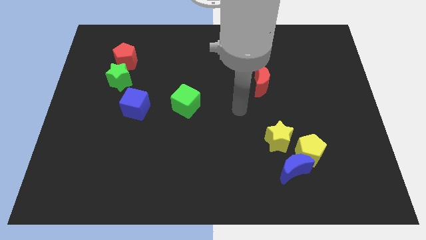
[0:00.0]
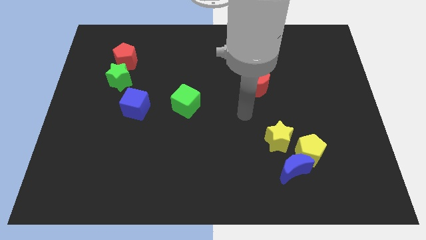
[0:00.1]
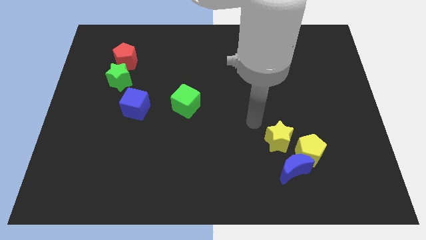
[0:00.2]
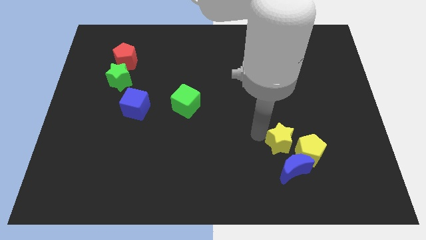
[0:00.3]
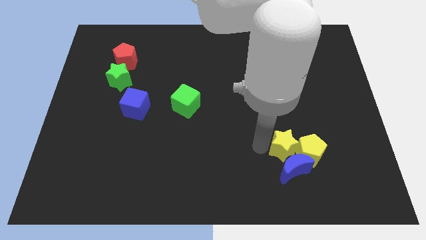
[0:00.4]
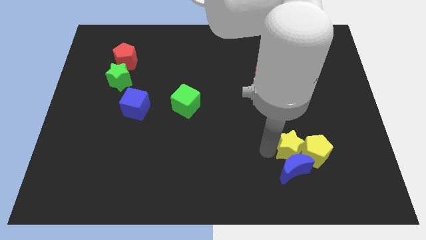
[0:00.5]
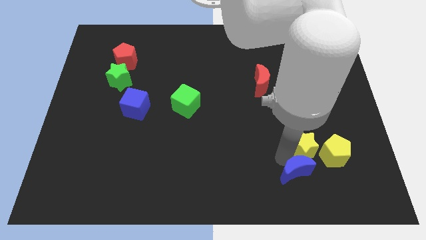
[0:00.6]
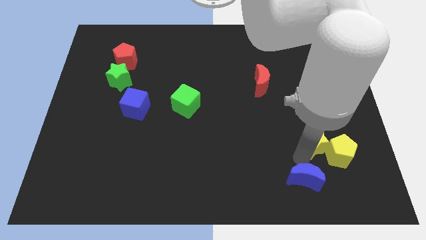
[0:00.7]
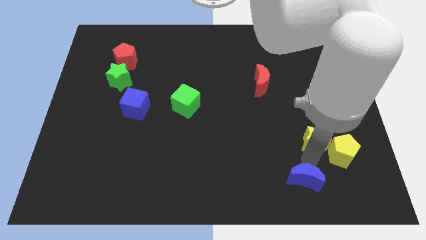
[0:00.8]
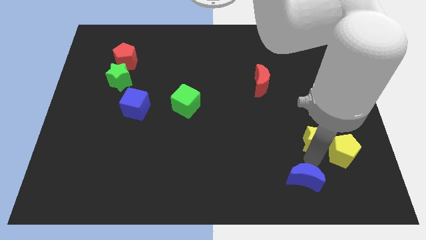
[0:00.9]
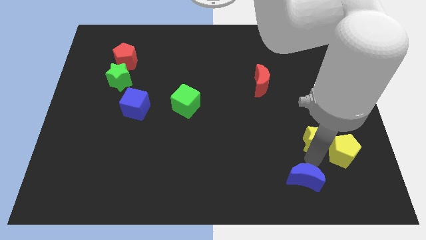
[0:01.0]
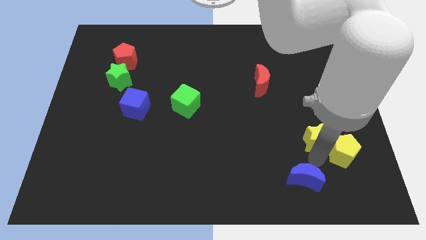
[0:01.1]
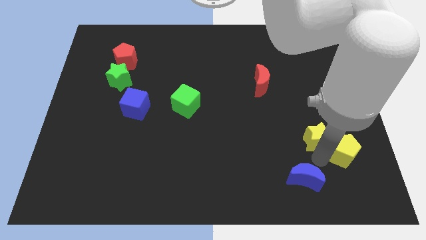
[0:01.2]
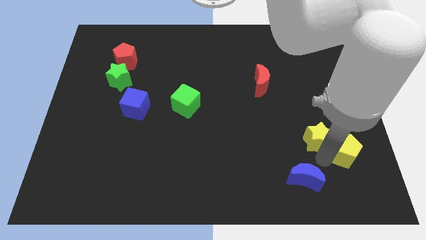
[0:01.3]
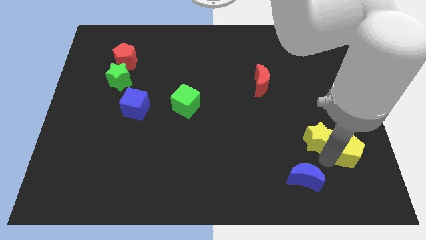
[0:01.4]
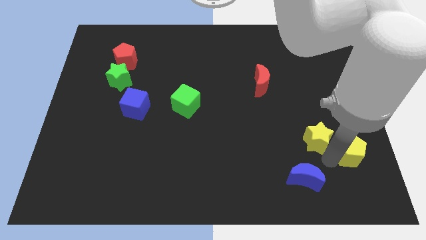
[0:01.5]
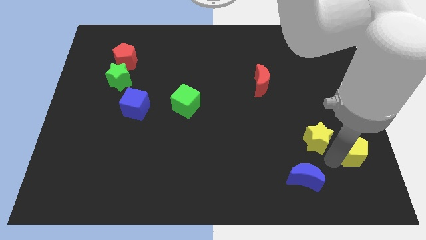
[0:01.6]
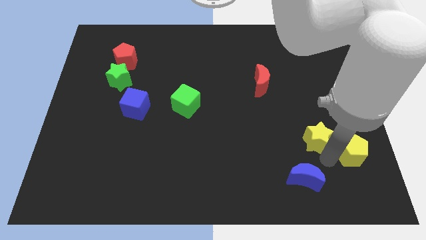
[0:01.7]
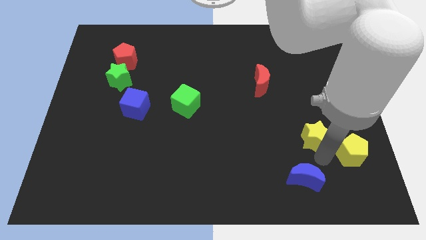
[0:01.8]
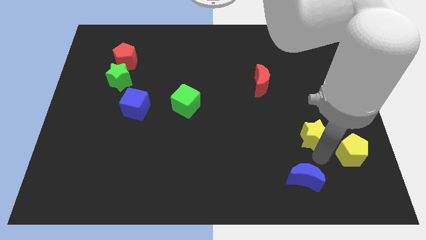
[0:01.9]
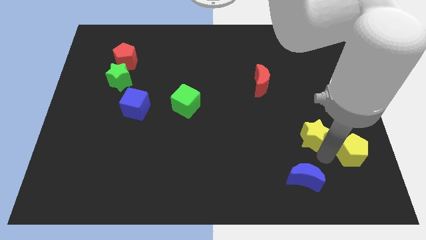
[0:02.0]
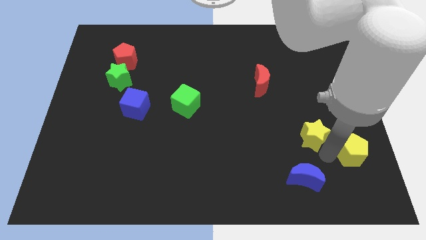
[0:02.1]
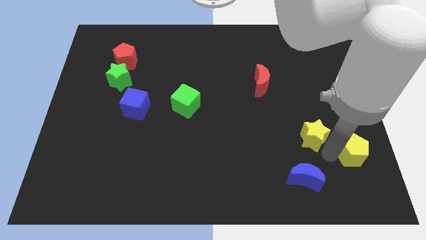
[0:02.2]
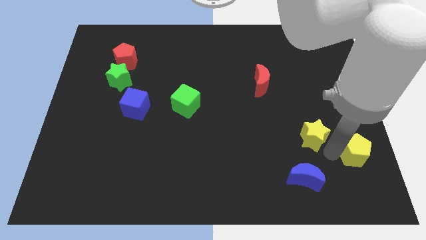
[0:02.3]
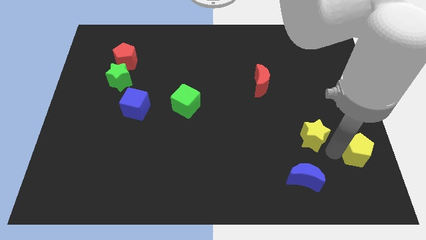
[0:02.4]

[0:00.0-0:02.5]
pull the yellow pentagon apart from the blue moon and yellow star

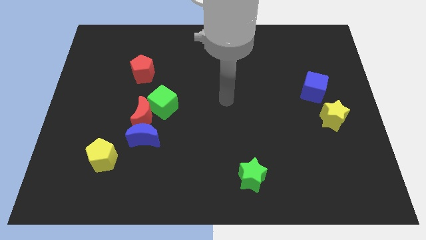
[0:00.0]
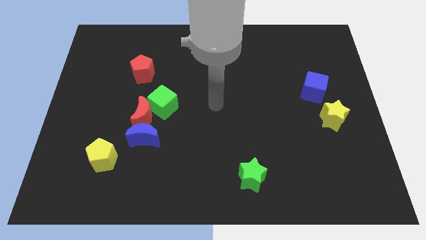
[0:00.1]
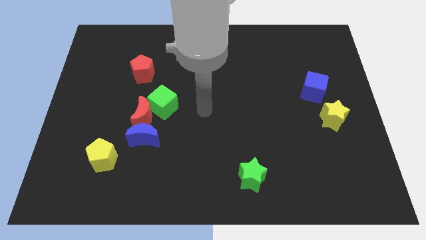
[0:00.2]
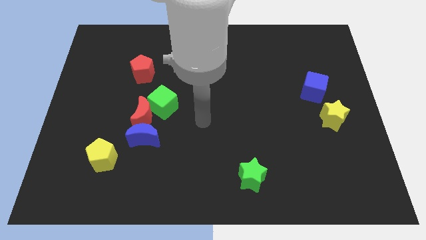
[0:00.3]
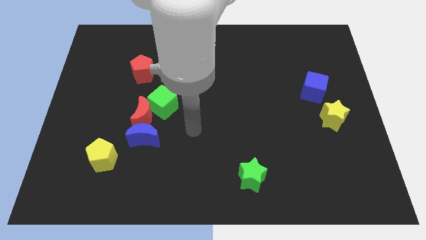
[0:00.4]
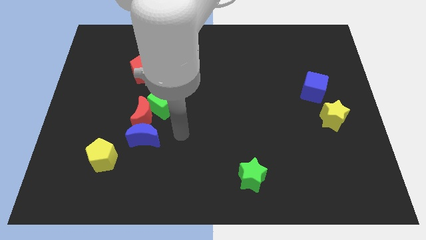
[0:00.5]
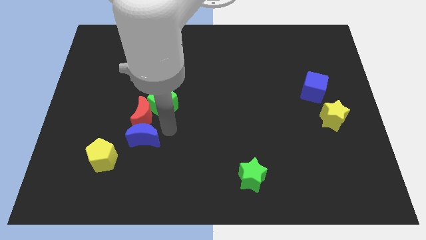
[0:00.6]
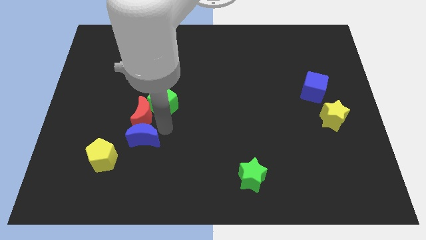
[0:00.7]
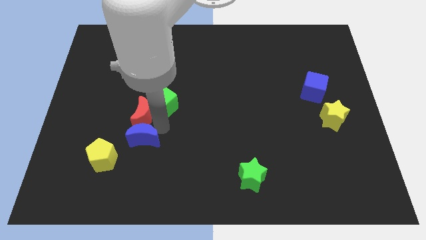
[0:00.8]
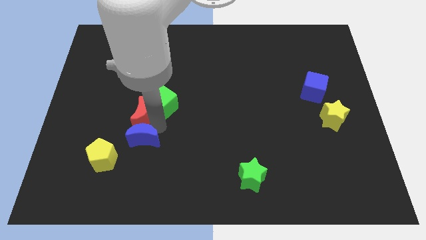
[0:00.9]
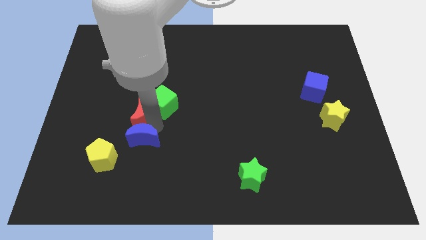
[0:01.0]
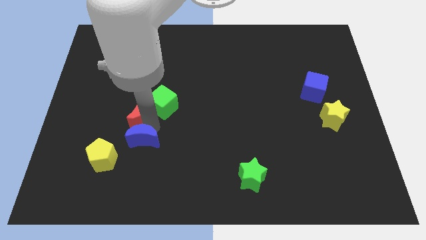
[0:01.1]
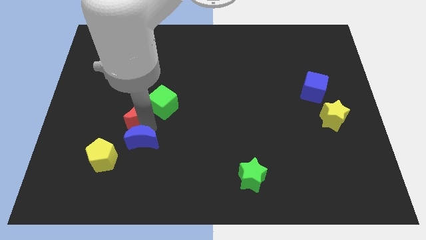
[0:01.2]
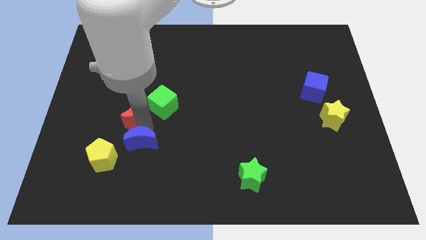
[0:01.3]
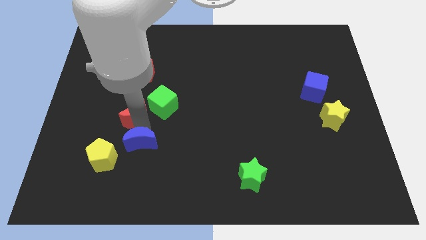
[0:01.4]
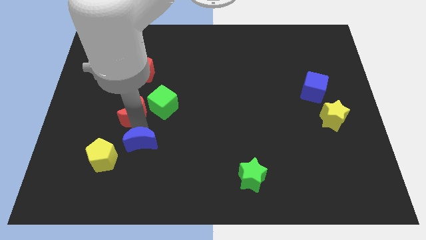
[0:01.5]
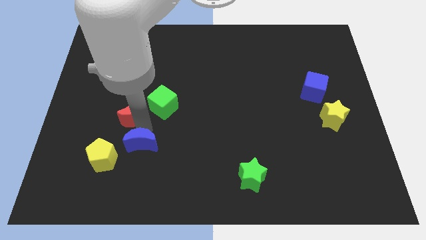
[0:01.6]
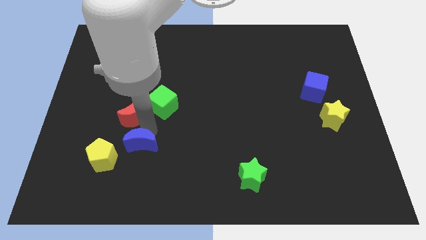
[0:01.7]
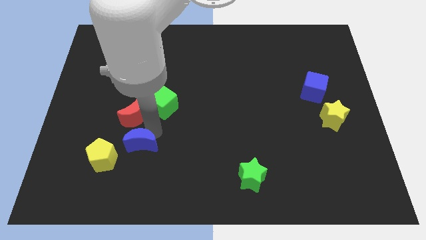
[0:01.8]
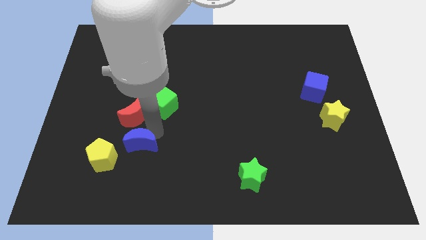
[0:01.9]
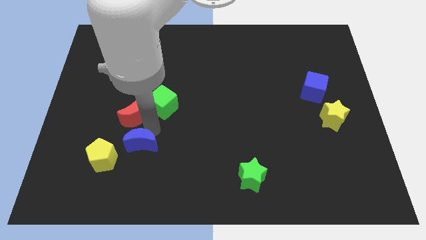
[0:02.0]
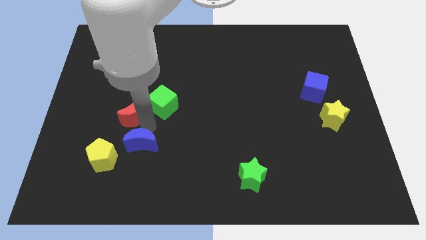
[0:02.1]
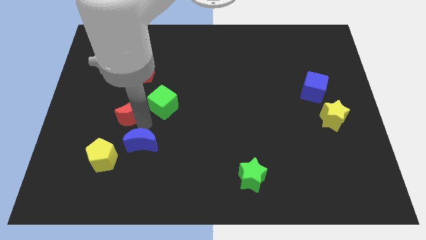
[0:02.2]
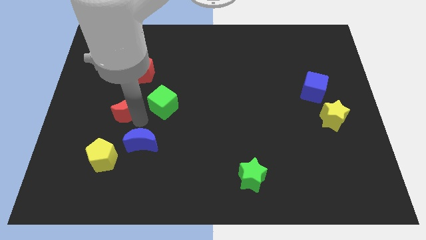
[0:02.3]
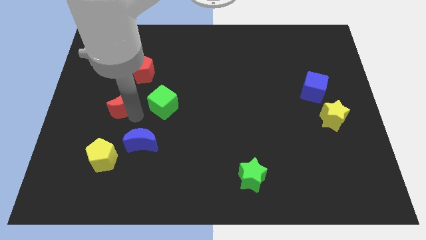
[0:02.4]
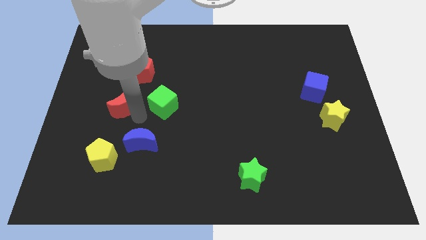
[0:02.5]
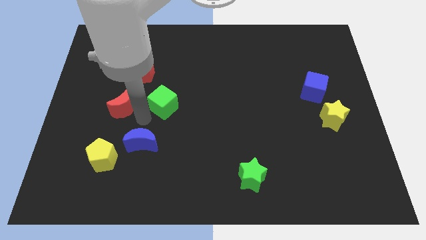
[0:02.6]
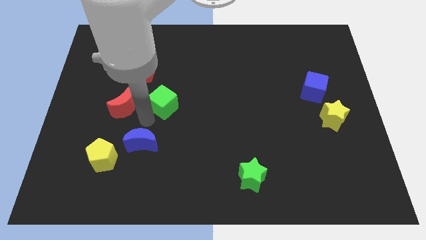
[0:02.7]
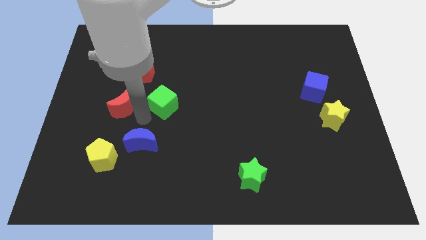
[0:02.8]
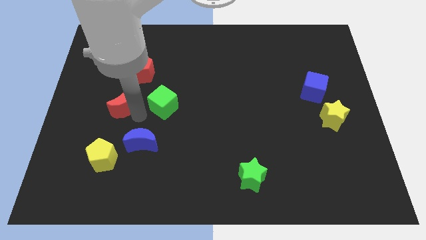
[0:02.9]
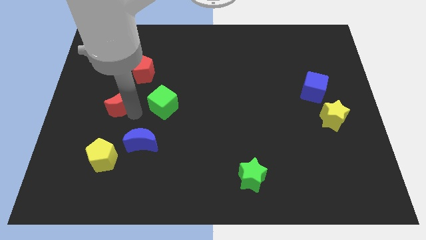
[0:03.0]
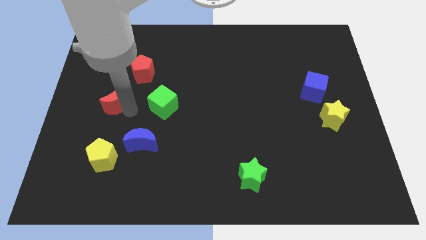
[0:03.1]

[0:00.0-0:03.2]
move the red moon away from the green cube and blue moon

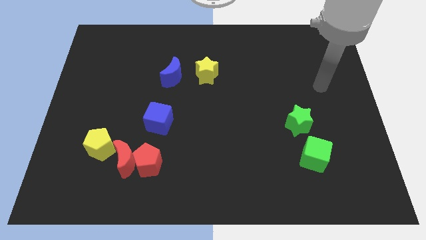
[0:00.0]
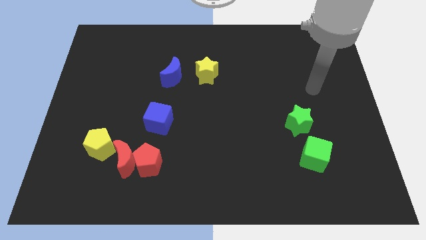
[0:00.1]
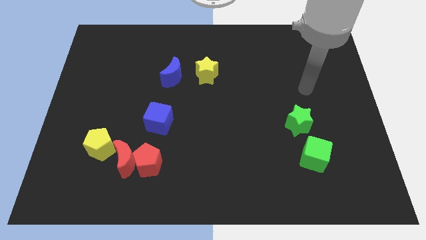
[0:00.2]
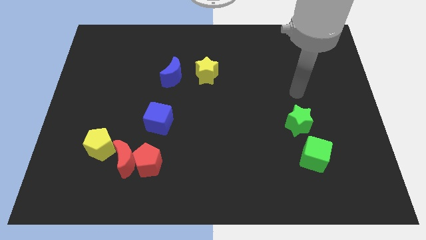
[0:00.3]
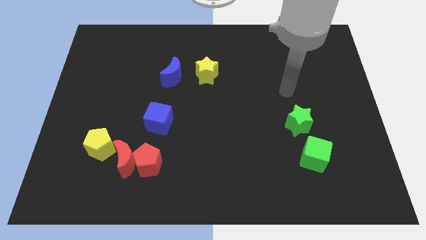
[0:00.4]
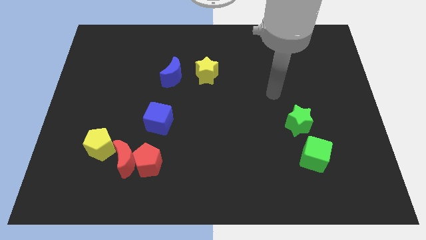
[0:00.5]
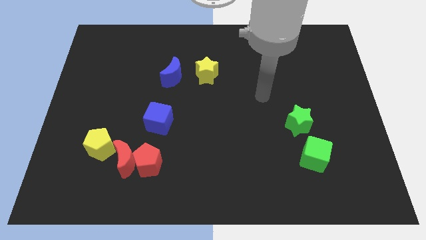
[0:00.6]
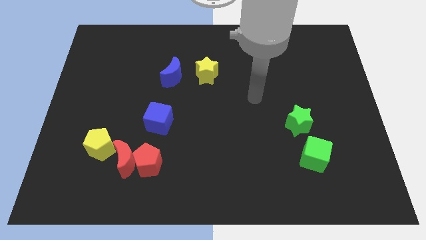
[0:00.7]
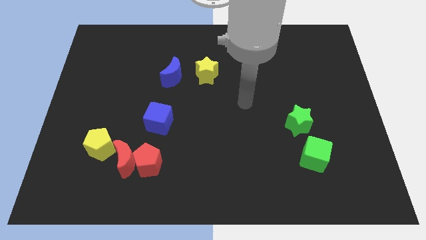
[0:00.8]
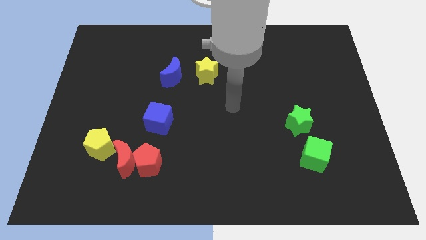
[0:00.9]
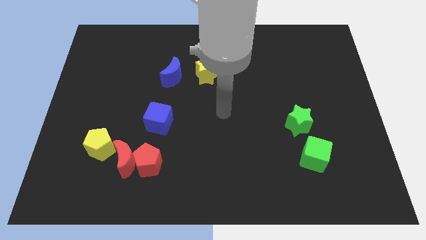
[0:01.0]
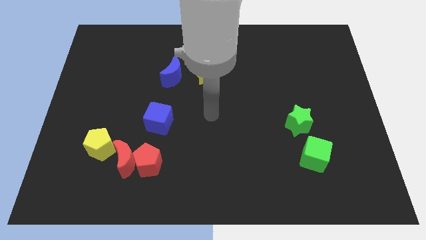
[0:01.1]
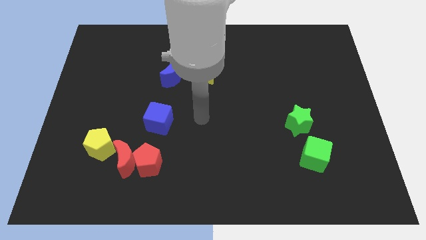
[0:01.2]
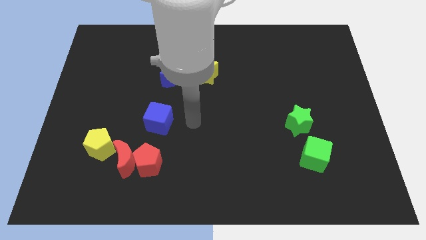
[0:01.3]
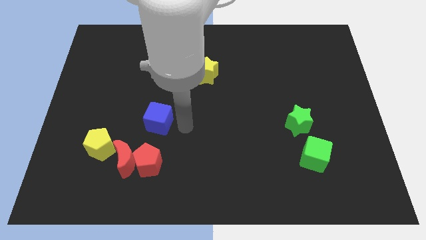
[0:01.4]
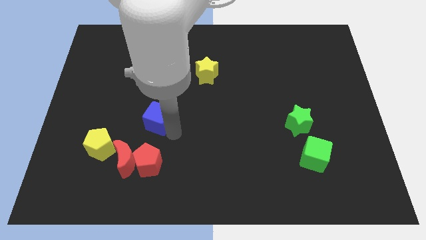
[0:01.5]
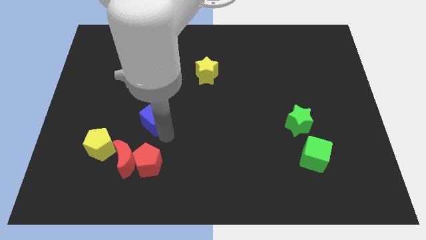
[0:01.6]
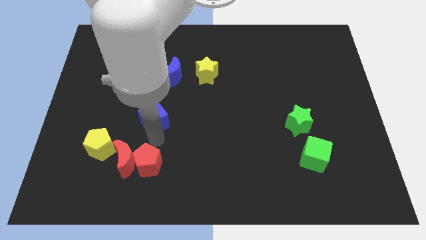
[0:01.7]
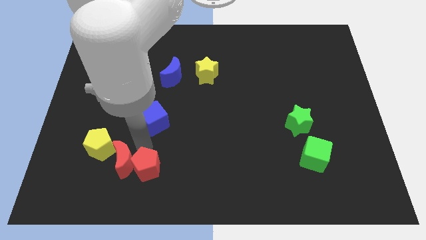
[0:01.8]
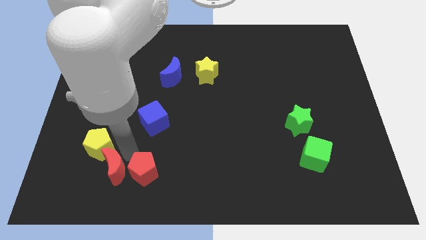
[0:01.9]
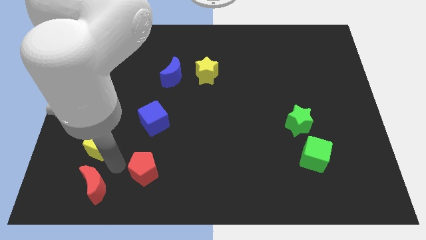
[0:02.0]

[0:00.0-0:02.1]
move the red pentagon away from the red moon

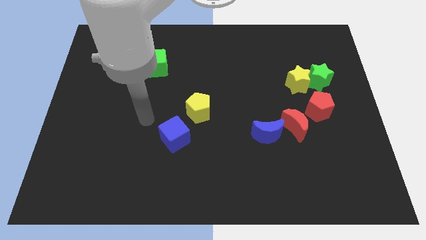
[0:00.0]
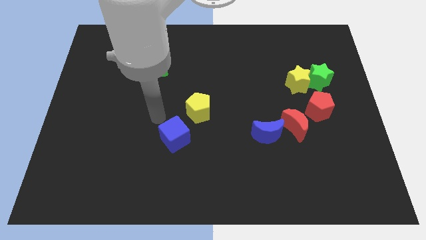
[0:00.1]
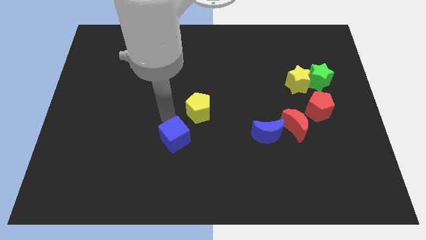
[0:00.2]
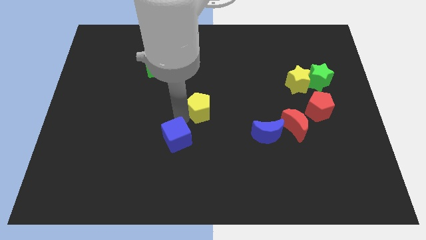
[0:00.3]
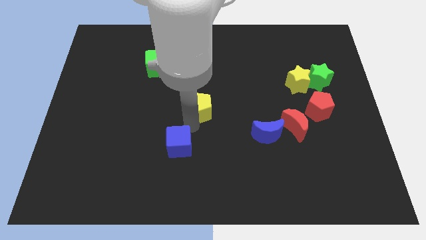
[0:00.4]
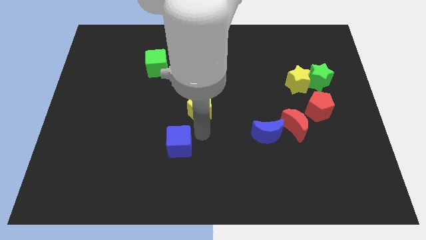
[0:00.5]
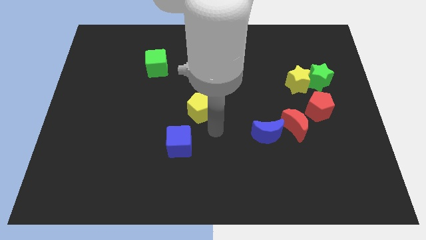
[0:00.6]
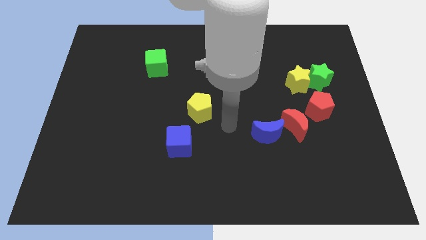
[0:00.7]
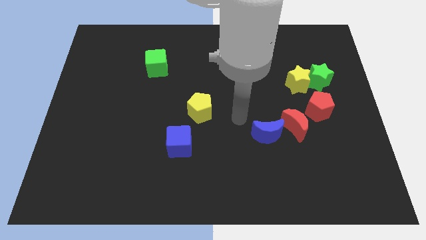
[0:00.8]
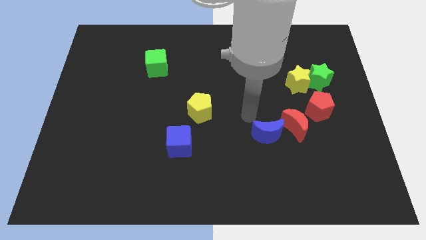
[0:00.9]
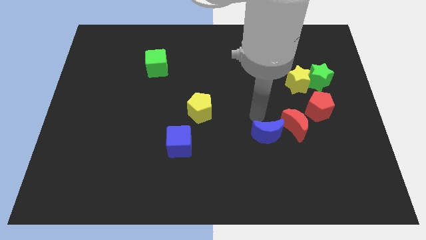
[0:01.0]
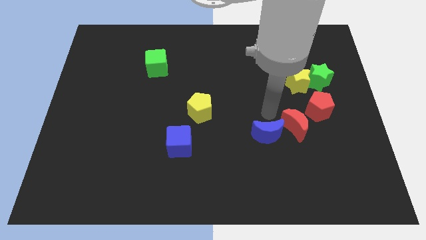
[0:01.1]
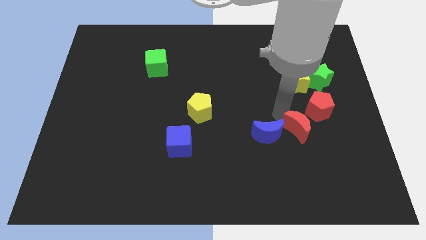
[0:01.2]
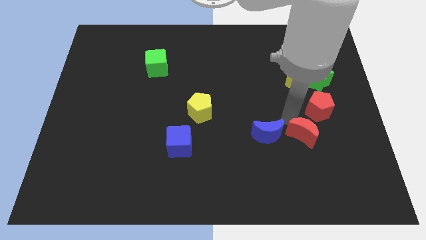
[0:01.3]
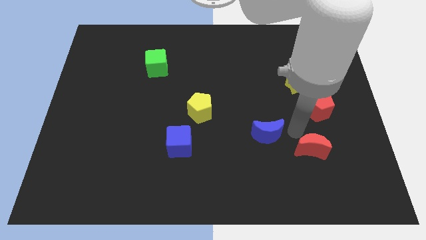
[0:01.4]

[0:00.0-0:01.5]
pull the blue moon apart from the red moon

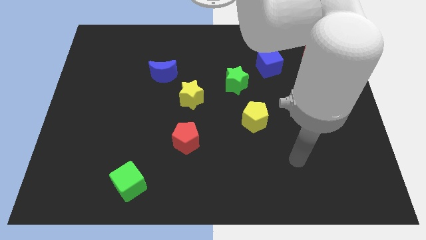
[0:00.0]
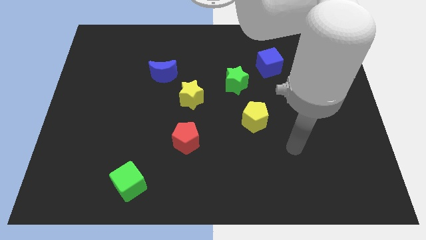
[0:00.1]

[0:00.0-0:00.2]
move the red moon away from the blue cube
